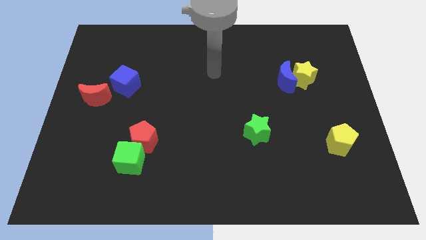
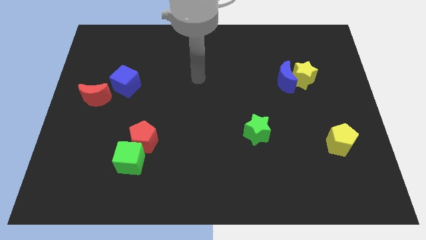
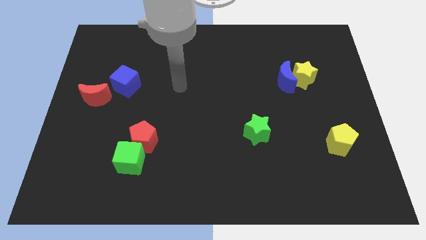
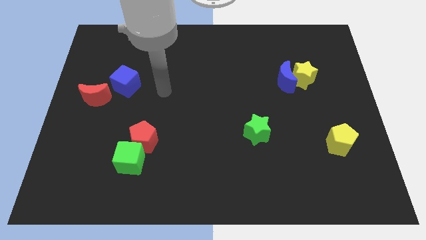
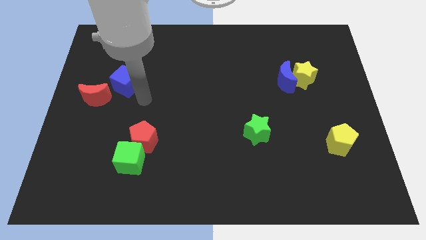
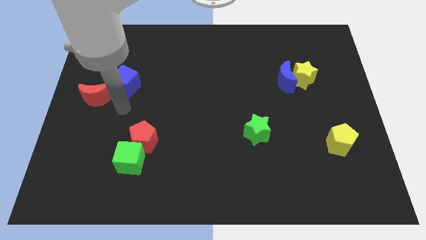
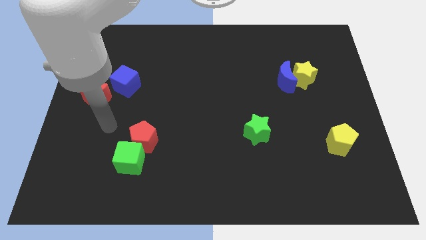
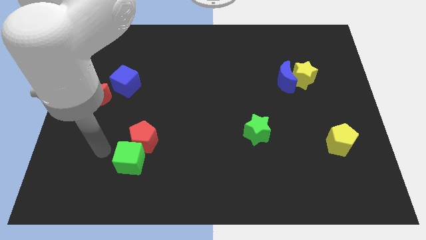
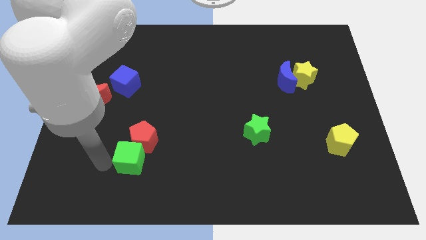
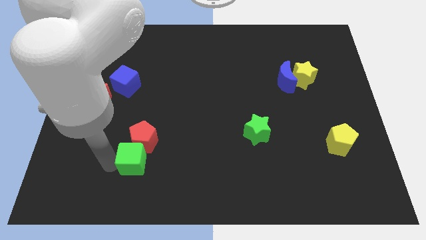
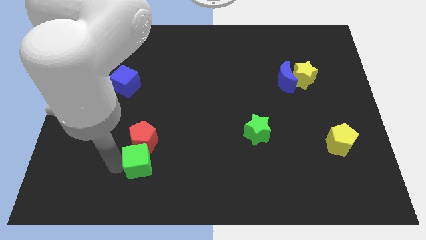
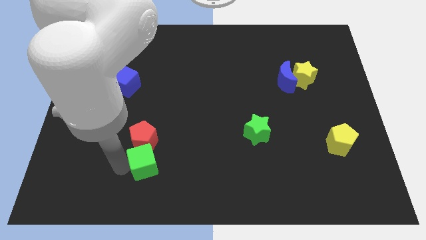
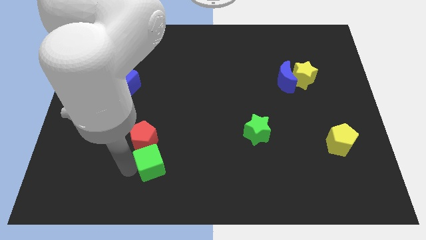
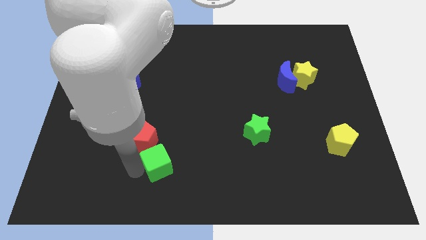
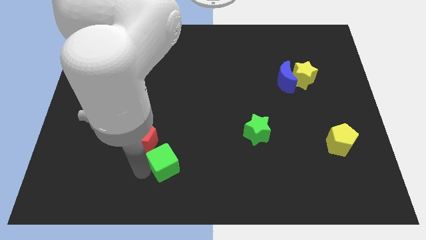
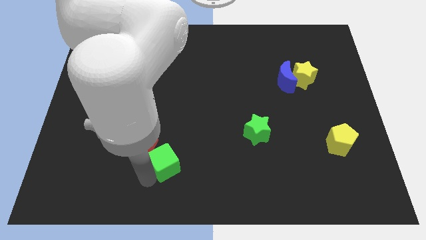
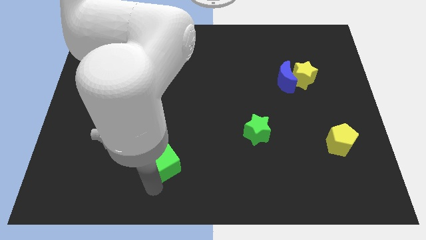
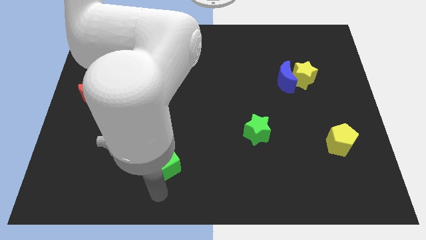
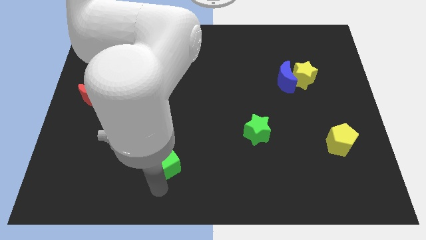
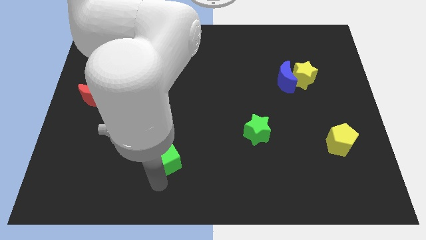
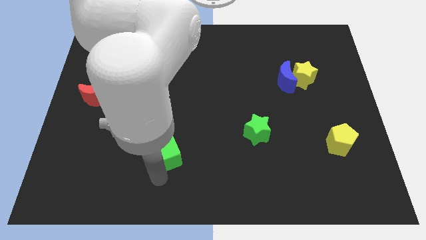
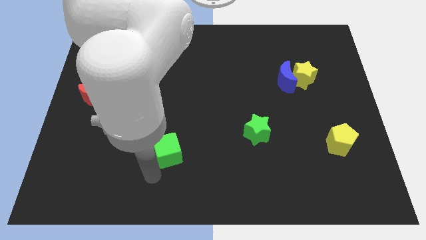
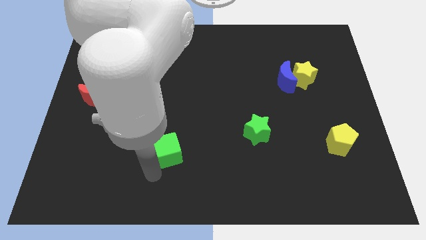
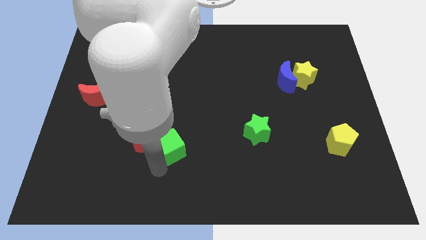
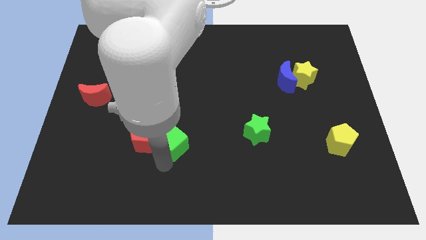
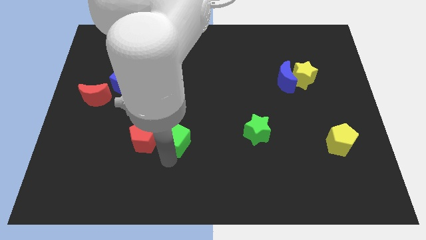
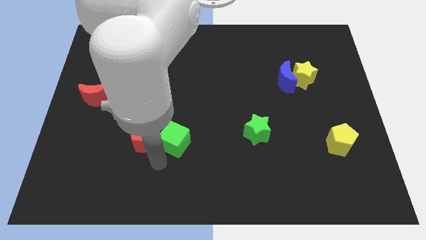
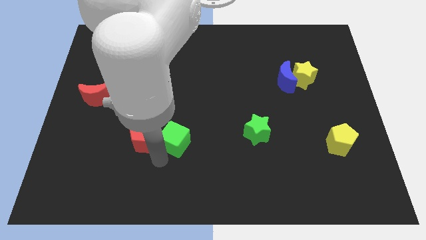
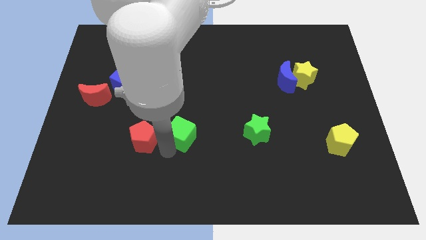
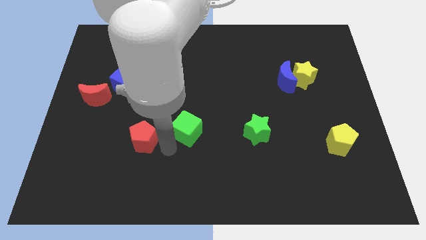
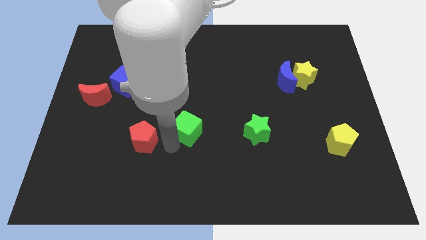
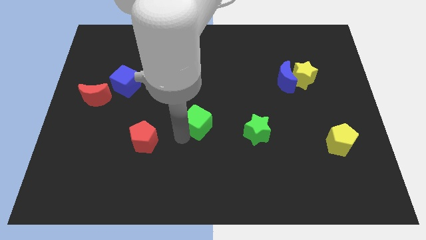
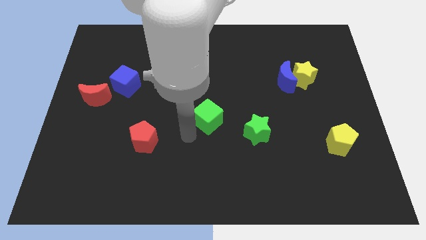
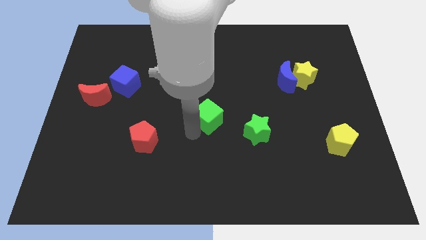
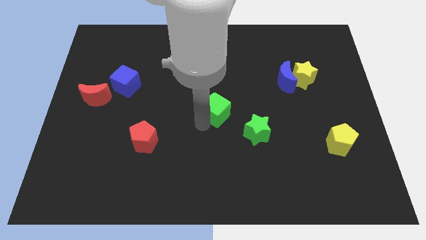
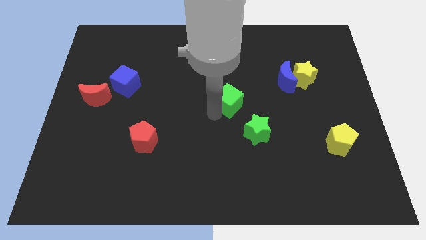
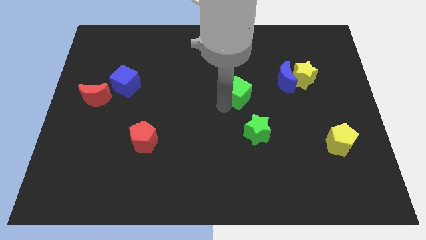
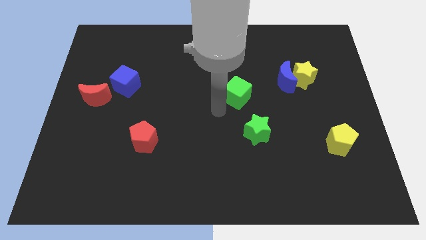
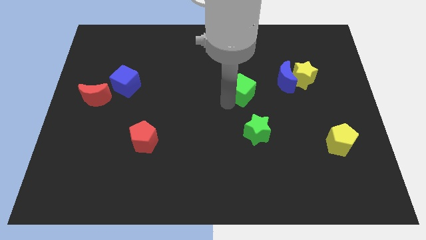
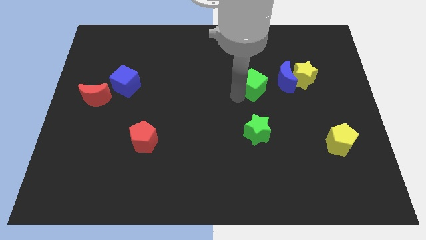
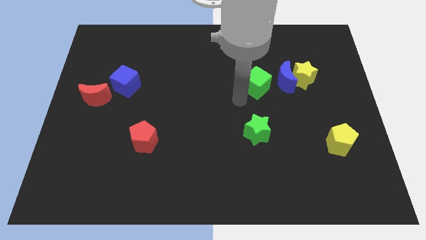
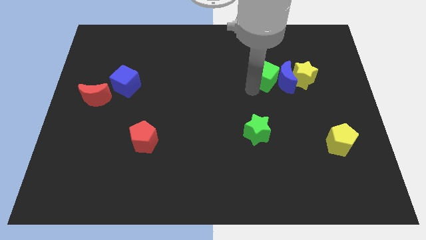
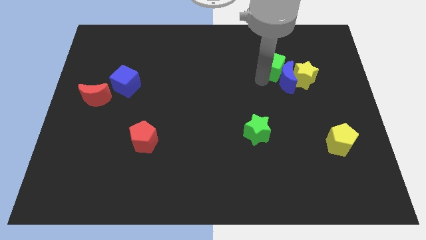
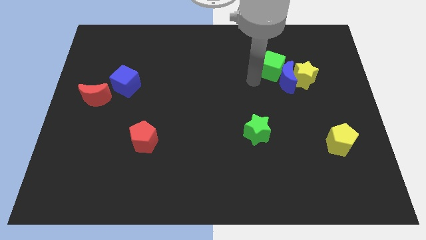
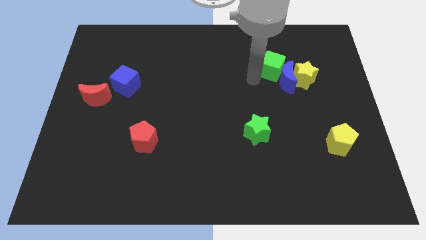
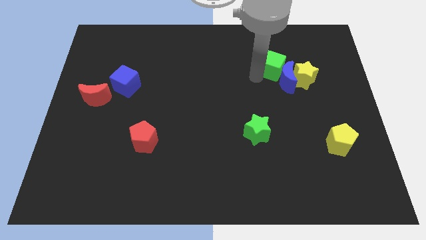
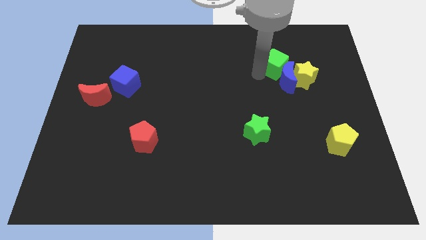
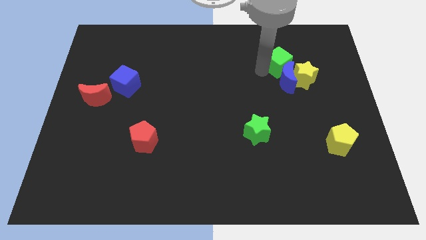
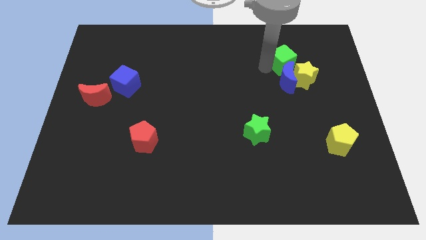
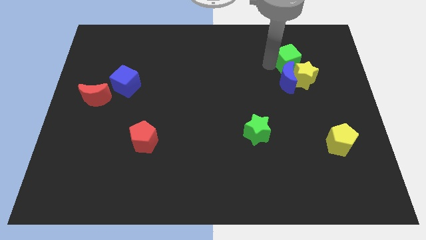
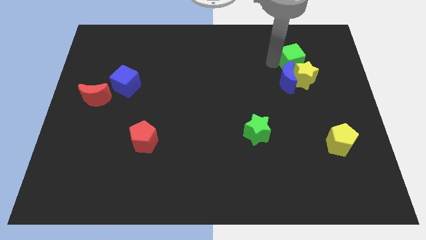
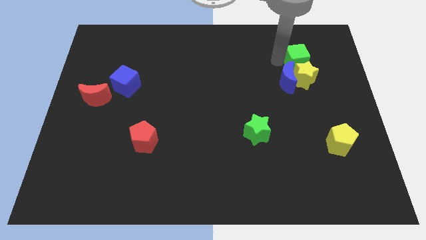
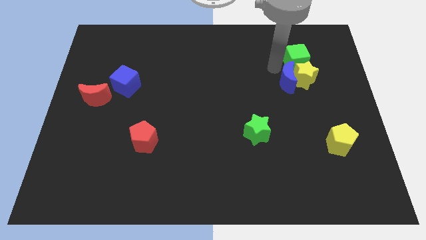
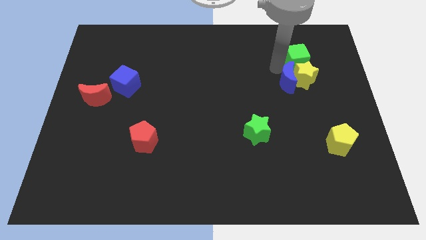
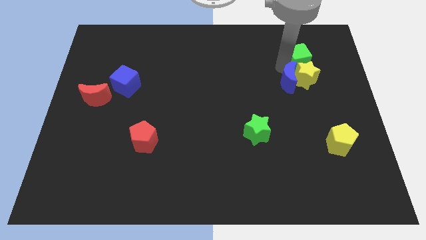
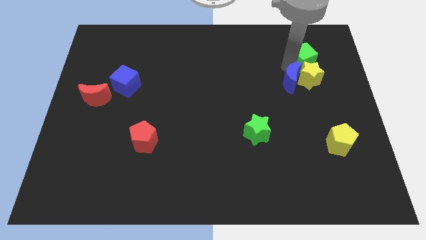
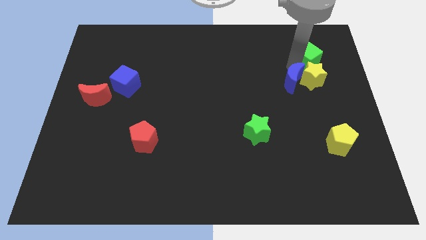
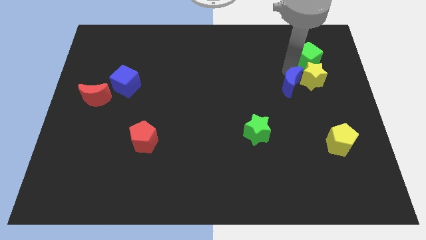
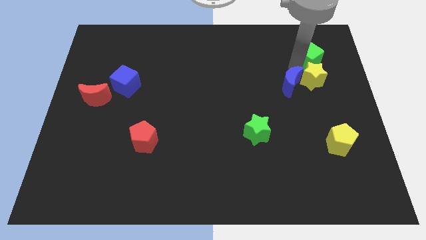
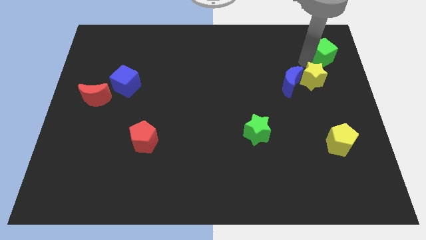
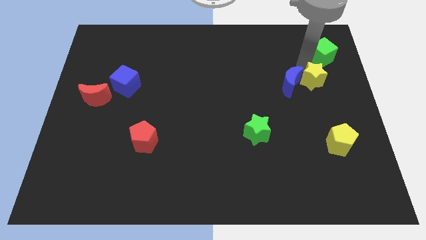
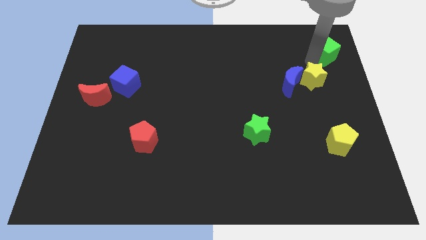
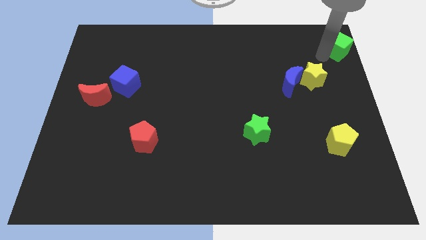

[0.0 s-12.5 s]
move the green cube to the upper right corner

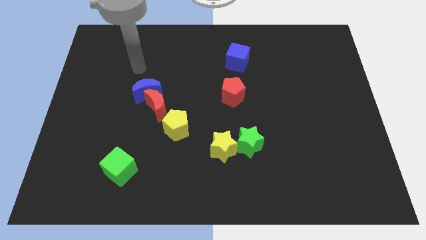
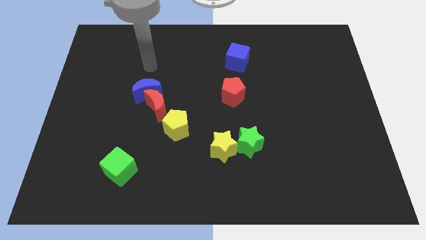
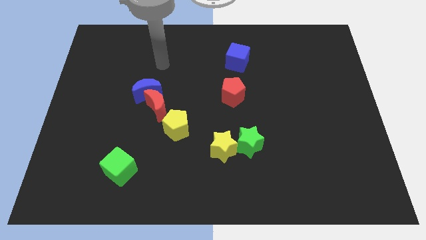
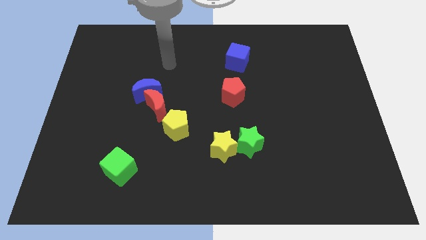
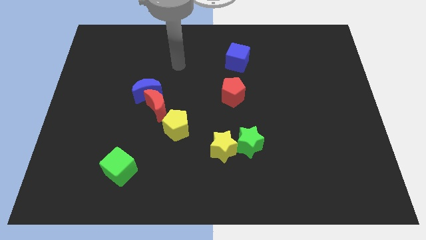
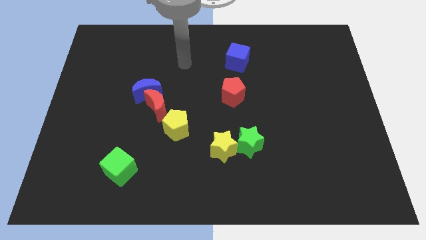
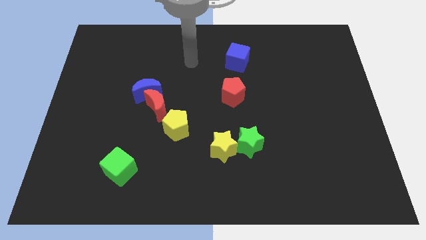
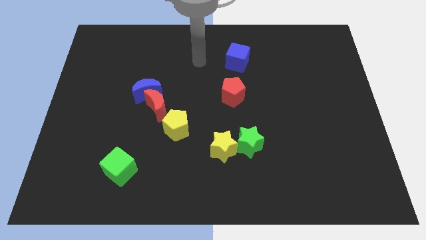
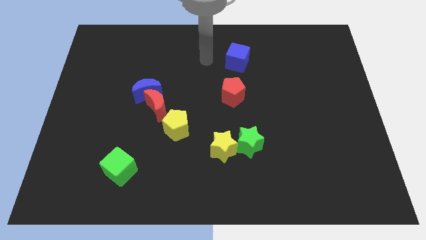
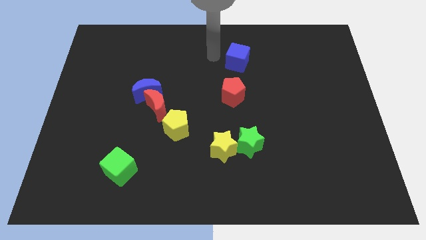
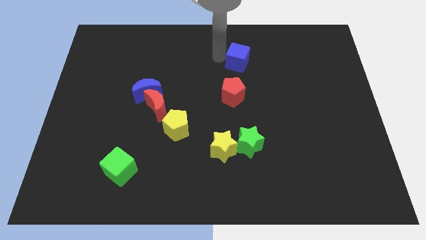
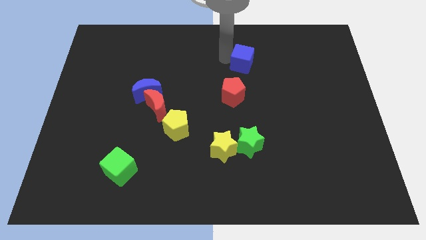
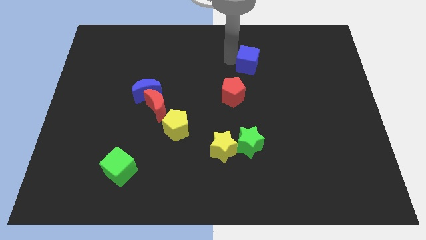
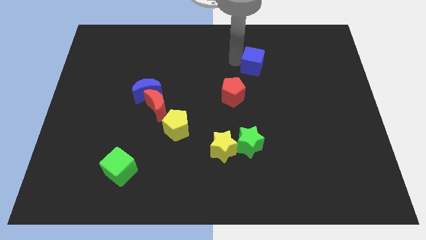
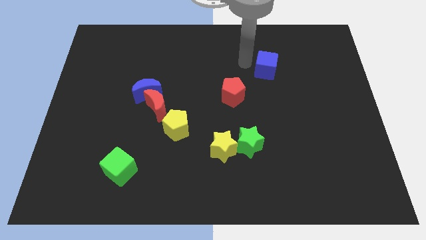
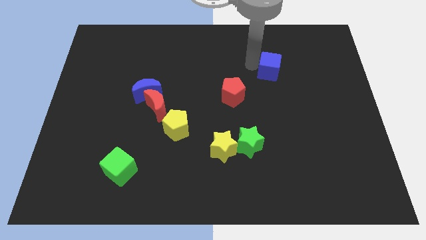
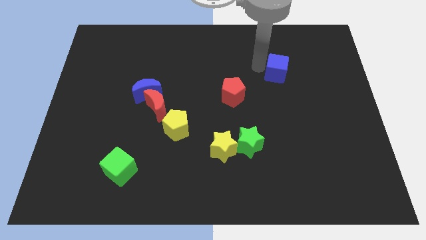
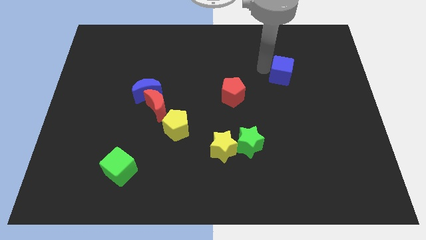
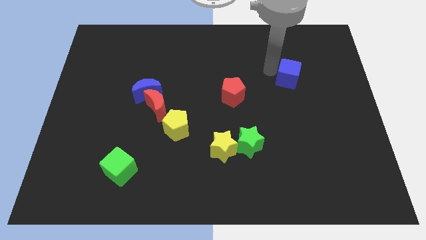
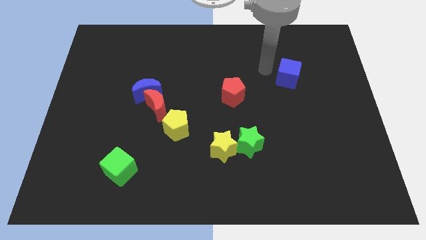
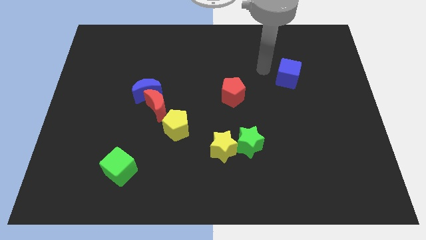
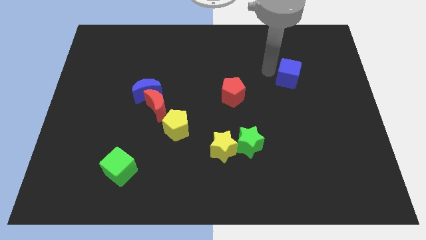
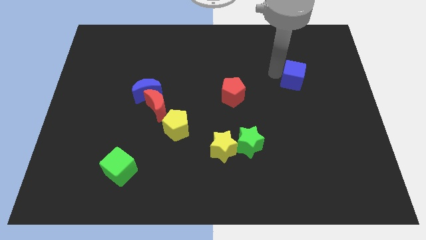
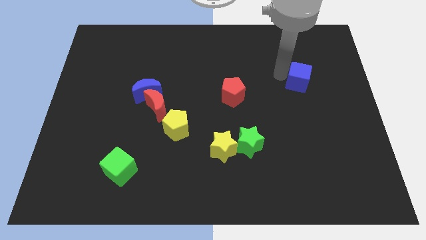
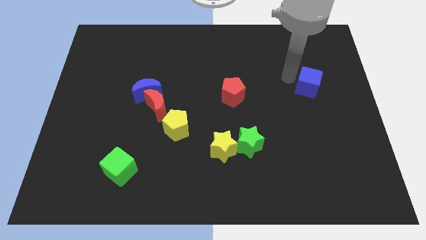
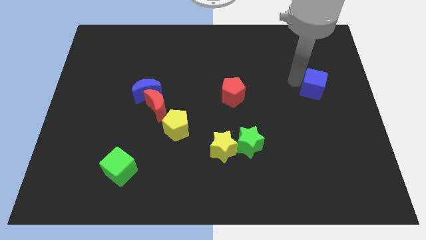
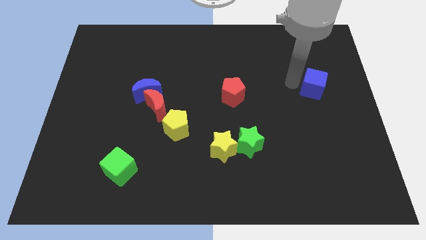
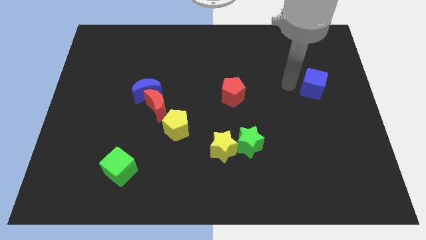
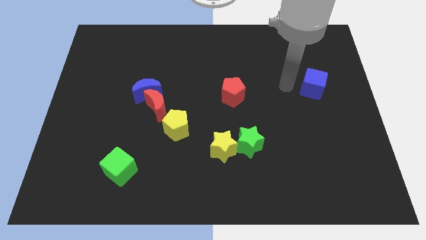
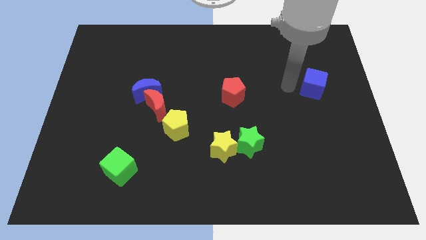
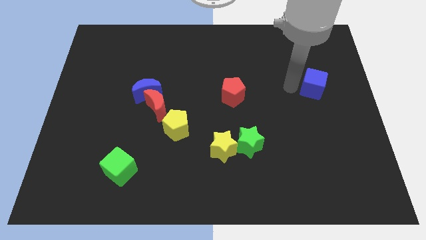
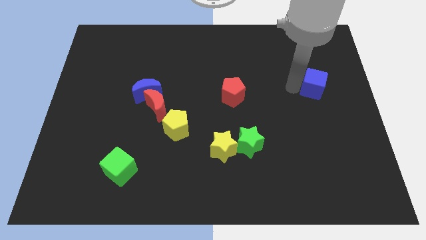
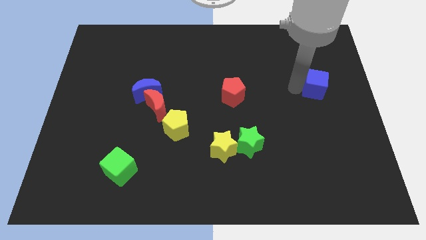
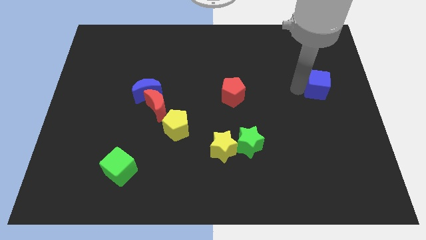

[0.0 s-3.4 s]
push the blue cube to the right side
